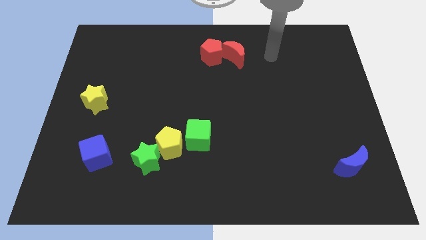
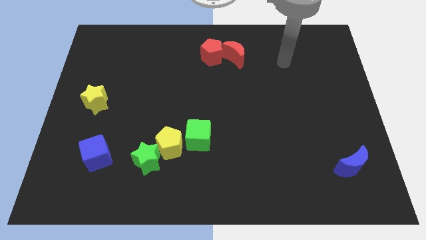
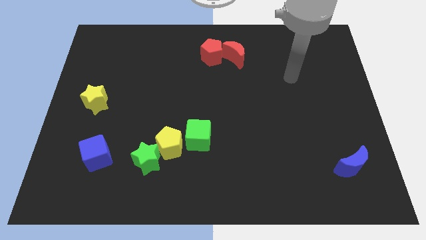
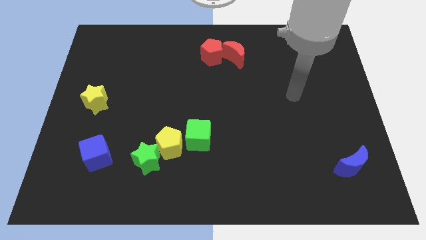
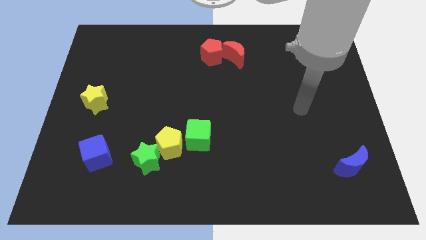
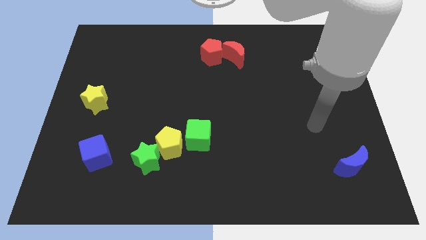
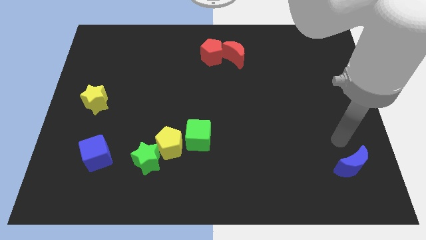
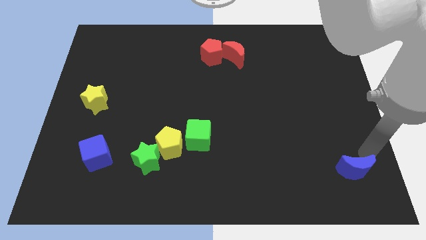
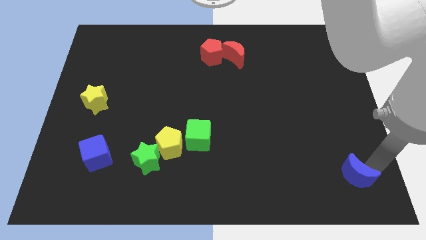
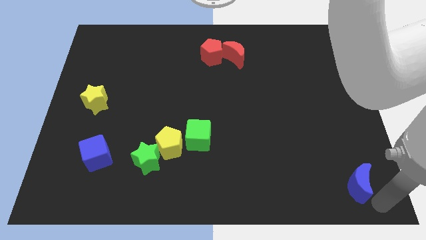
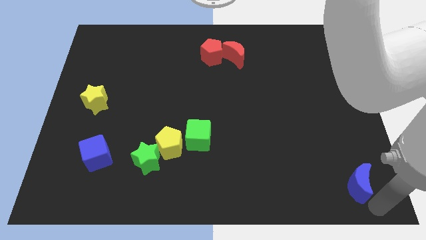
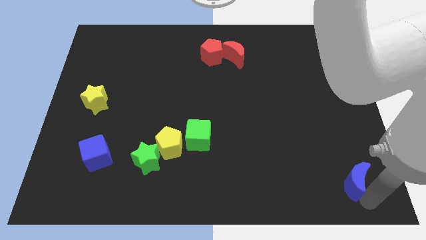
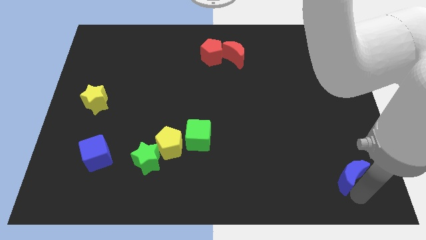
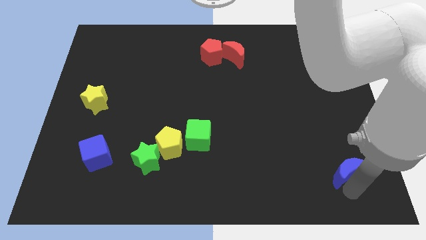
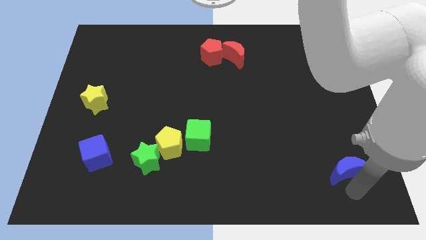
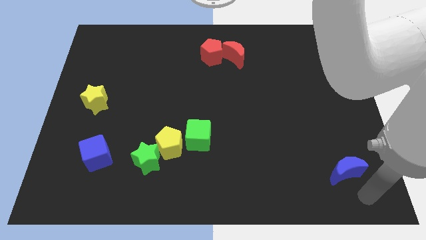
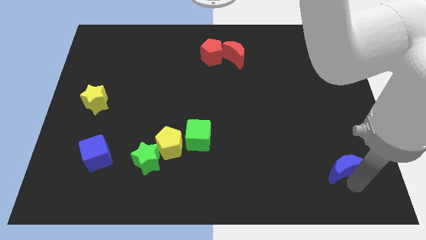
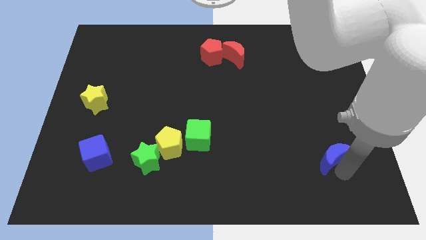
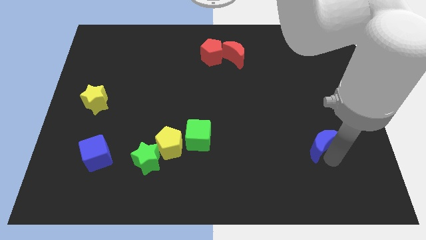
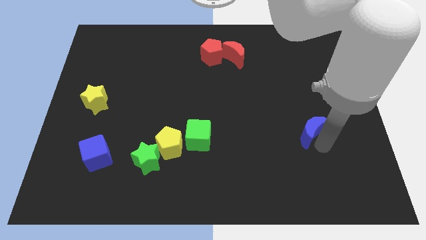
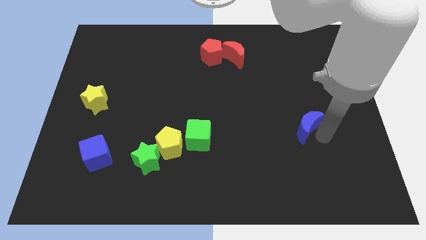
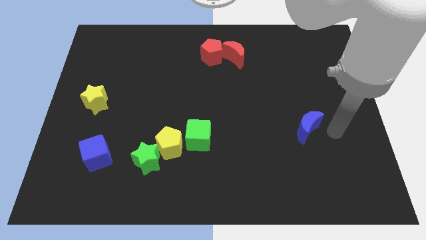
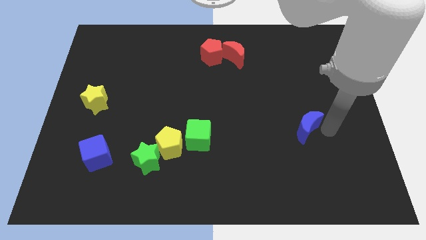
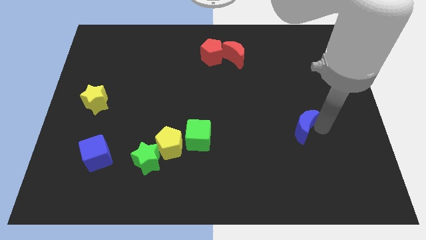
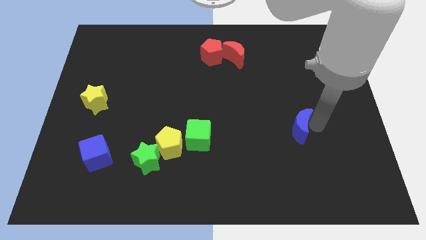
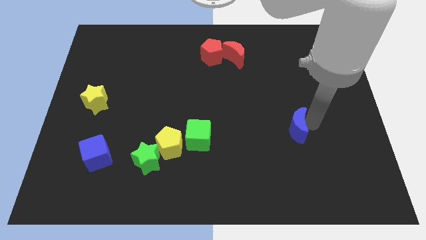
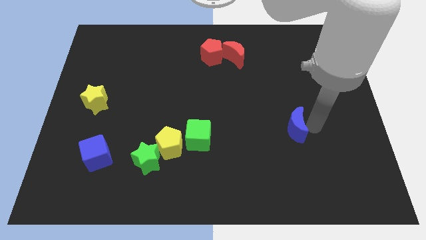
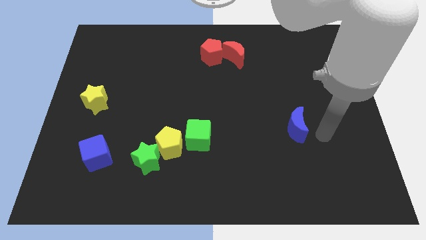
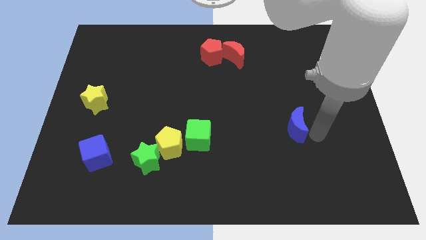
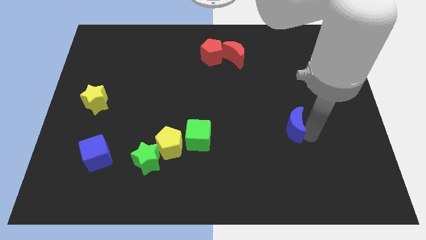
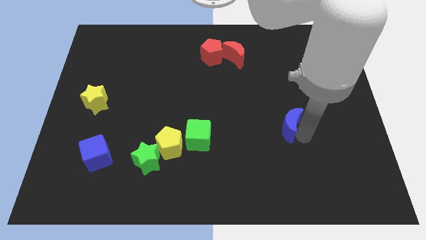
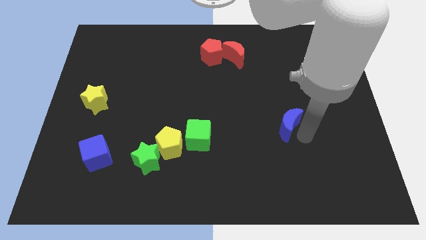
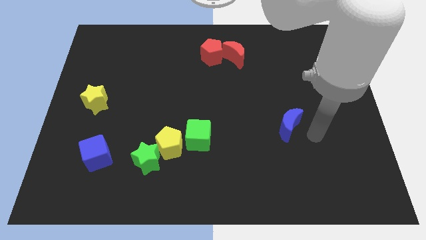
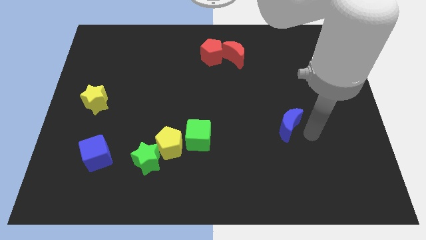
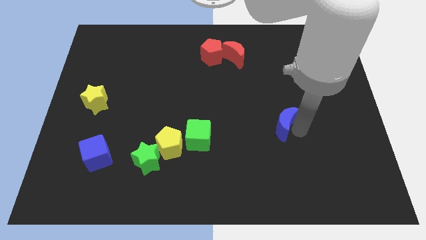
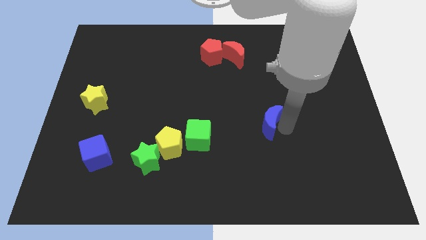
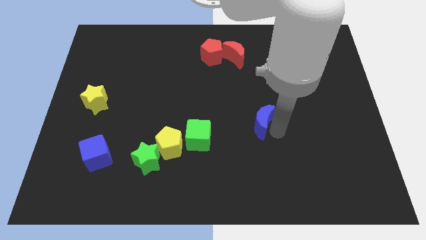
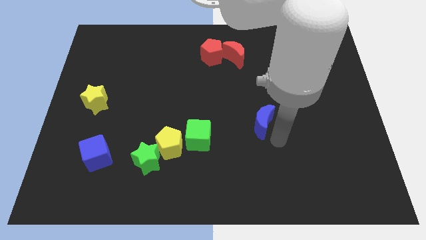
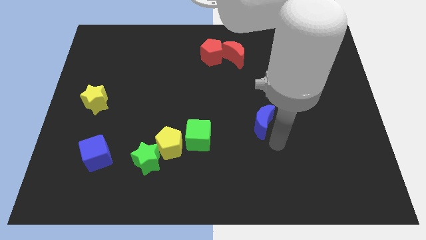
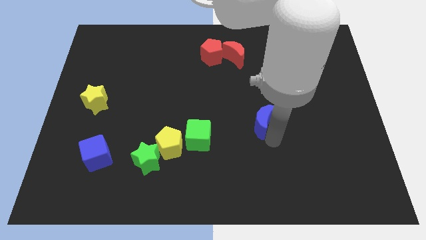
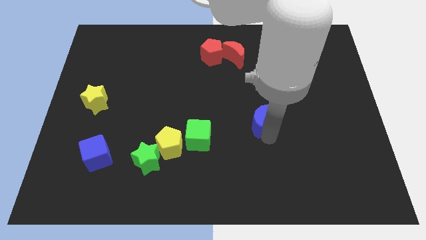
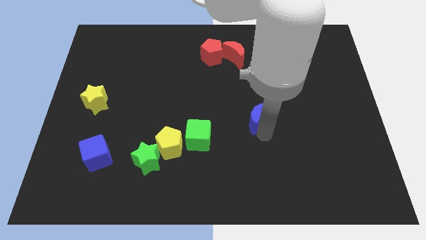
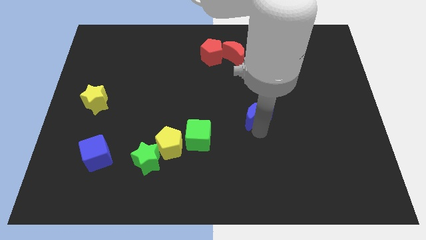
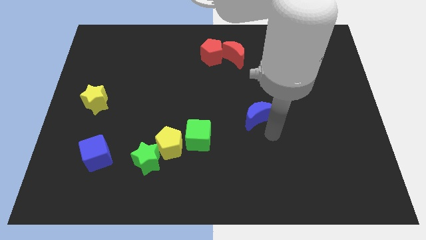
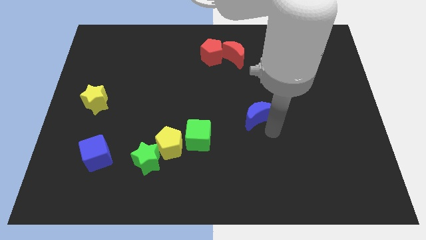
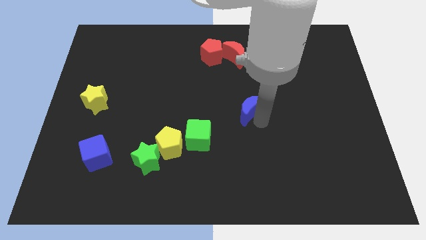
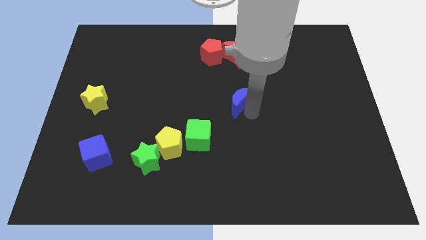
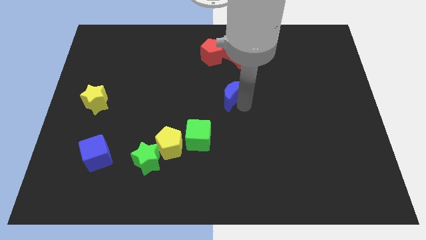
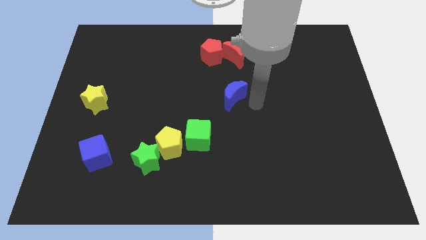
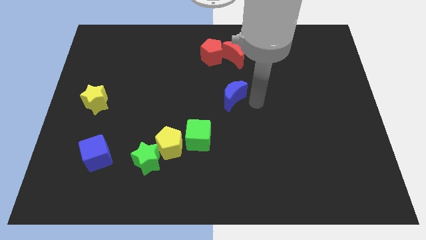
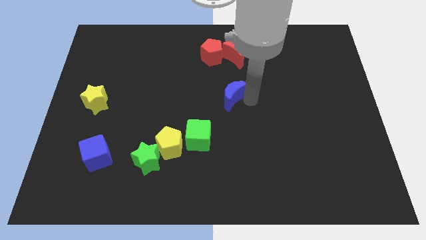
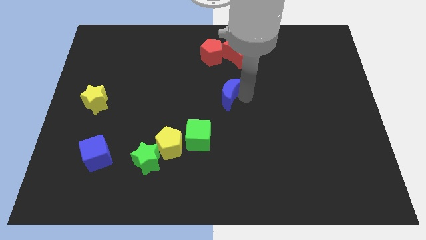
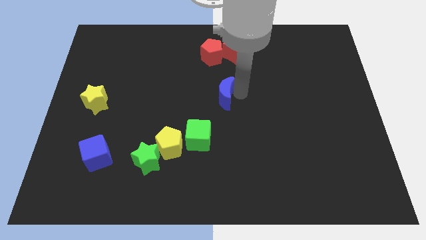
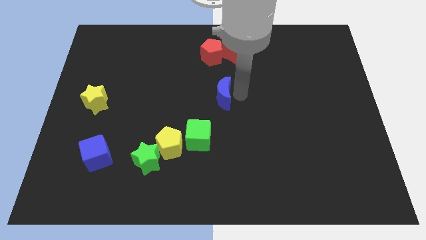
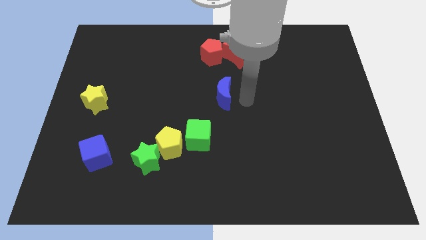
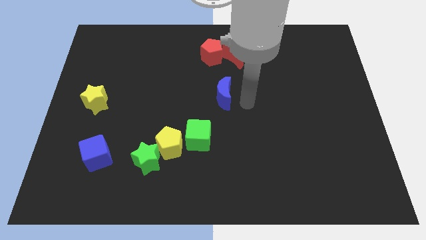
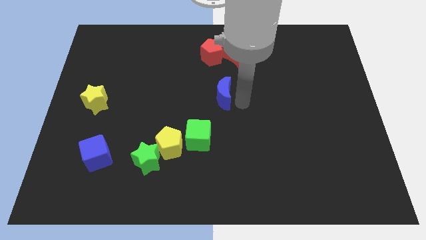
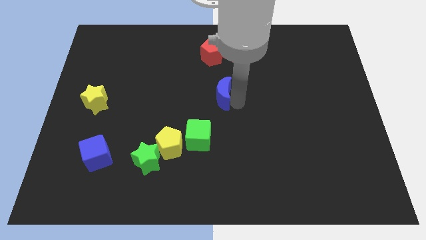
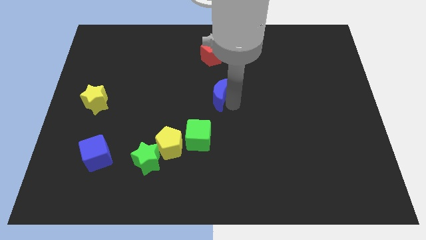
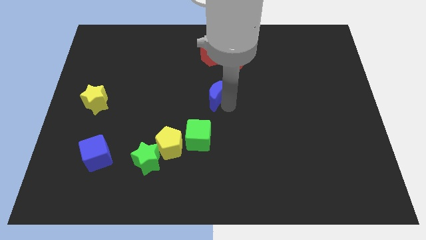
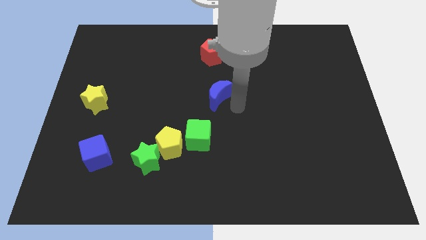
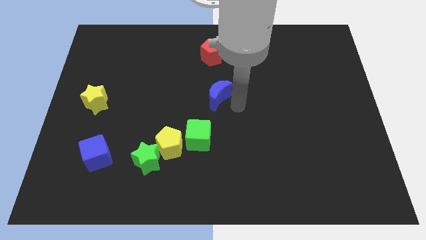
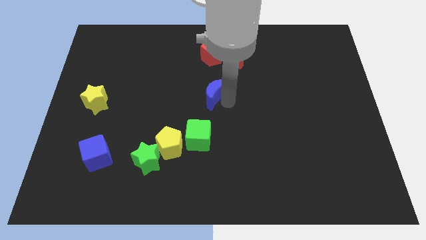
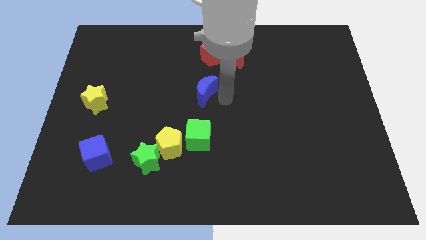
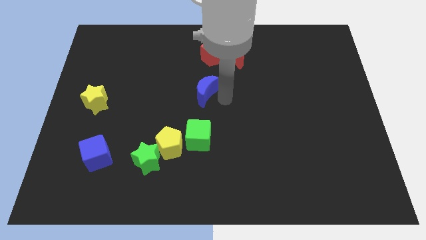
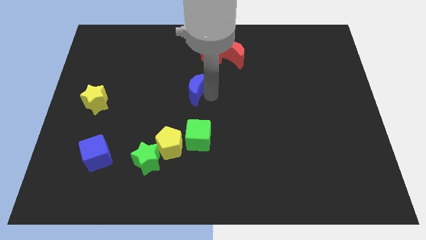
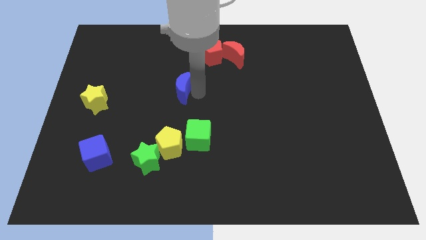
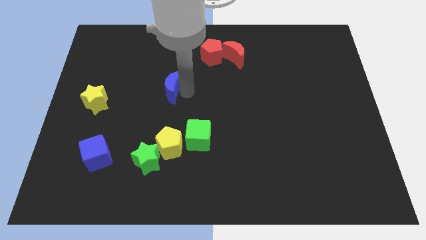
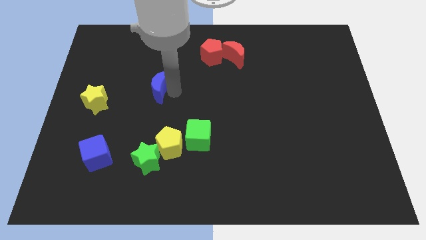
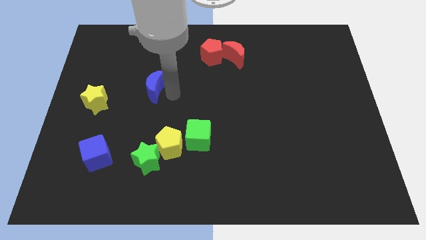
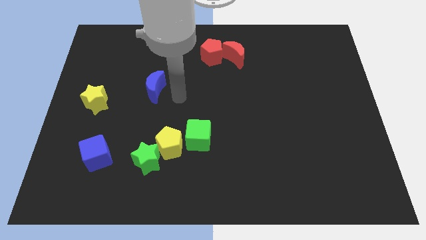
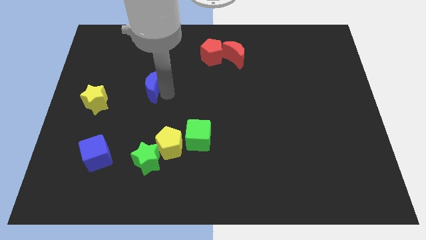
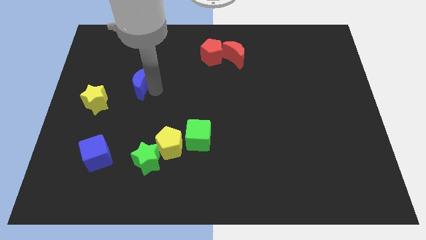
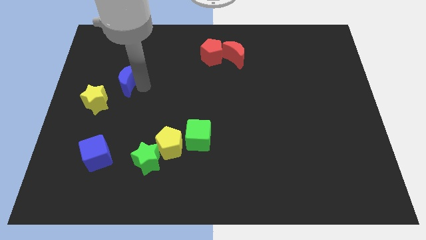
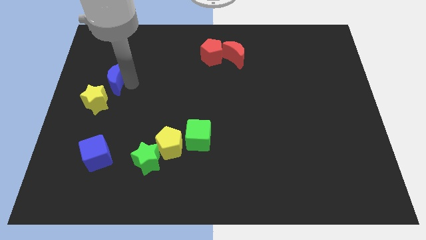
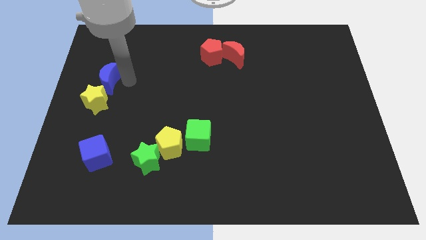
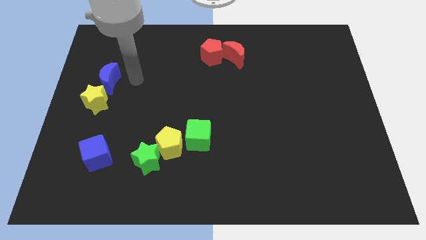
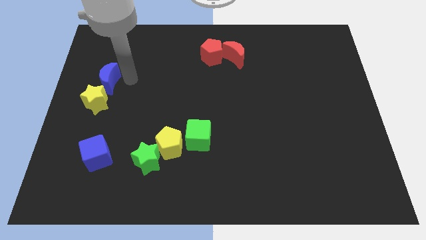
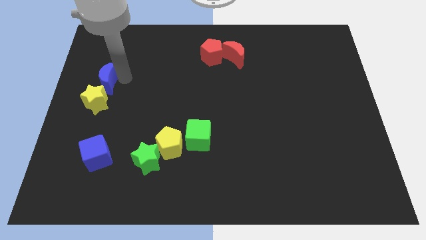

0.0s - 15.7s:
push the blue moon to the center left
